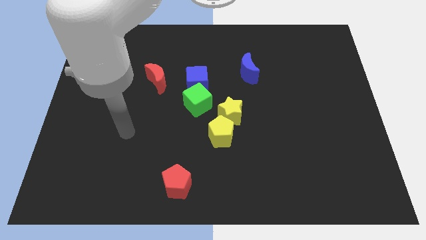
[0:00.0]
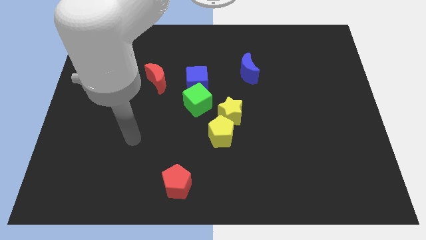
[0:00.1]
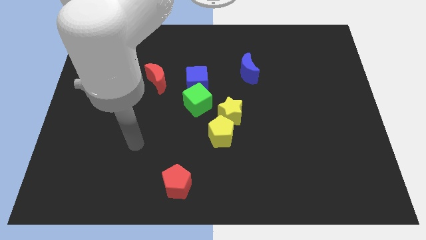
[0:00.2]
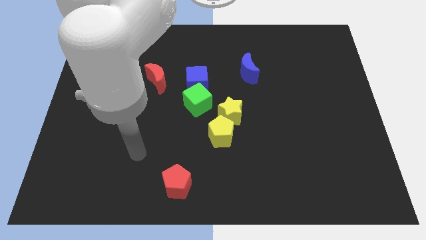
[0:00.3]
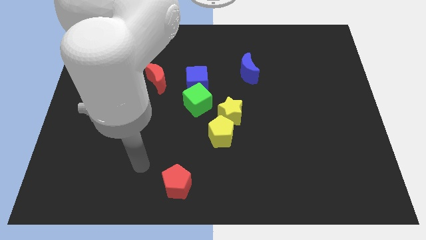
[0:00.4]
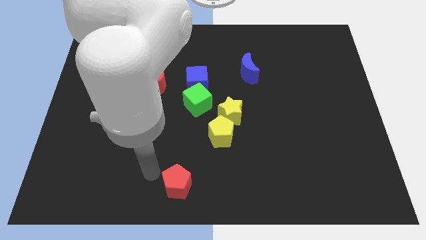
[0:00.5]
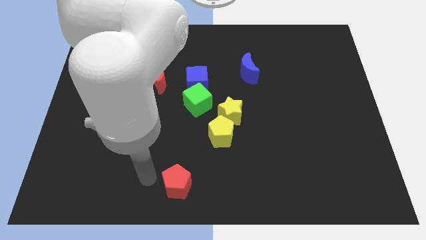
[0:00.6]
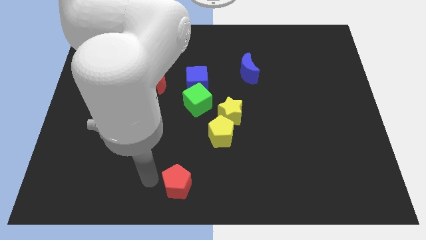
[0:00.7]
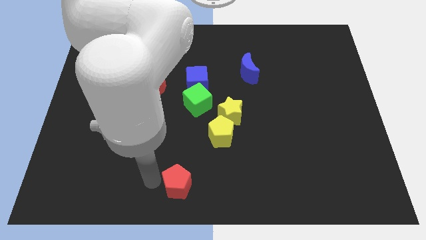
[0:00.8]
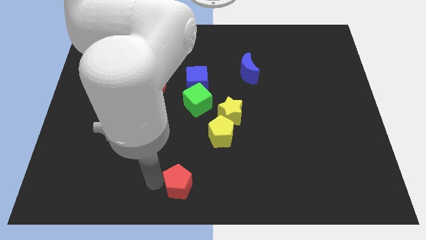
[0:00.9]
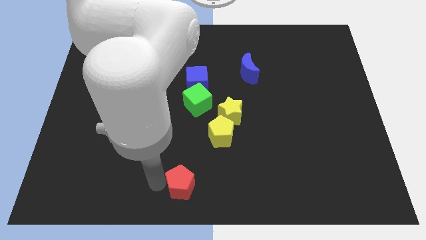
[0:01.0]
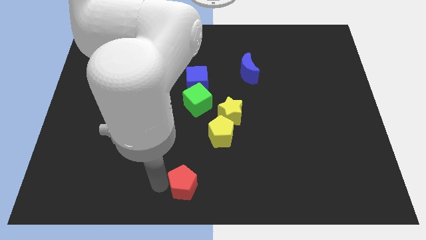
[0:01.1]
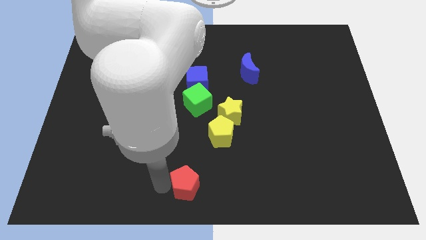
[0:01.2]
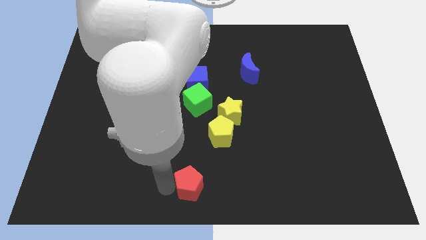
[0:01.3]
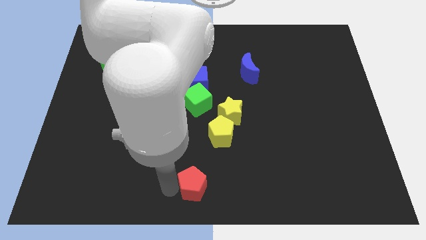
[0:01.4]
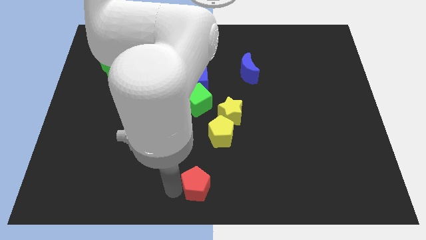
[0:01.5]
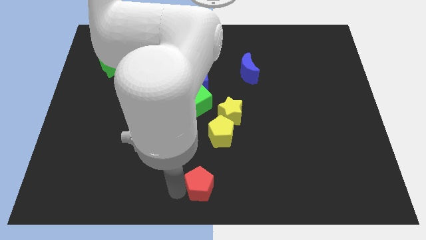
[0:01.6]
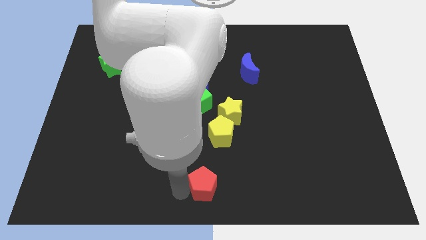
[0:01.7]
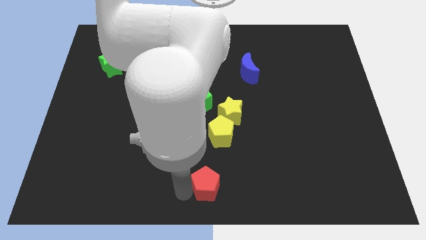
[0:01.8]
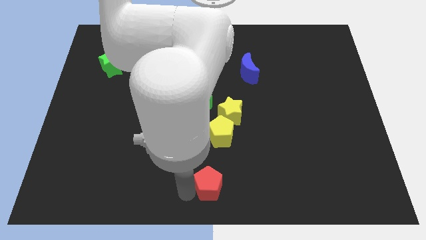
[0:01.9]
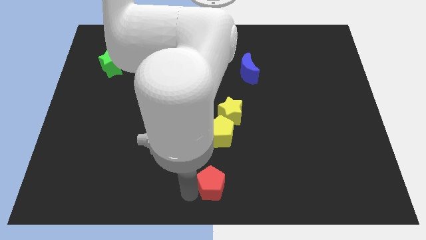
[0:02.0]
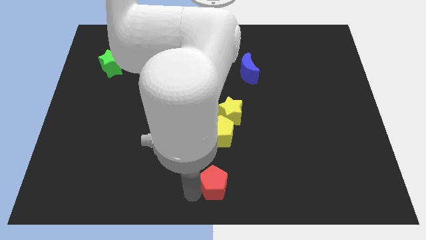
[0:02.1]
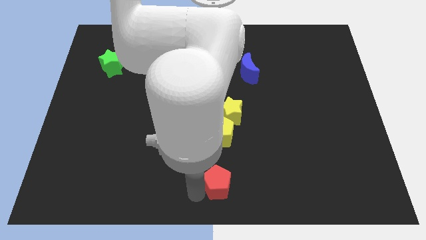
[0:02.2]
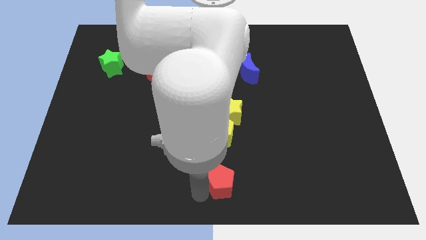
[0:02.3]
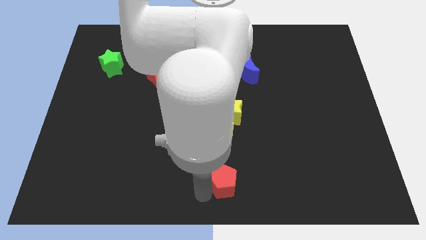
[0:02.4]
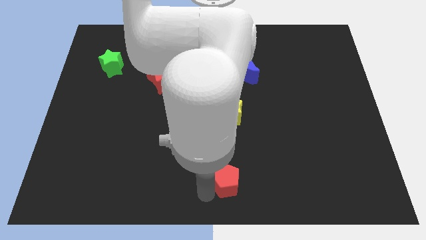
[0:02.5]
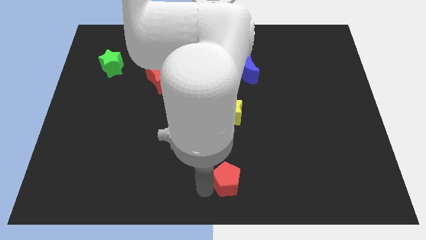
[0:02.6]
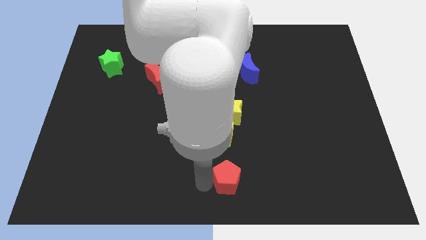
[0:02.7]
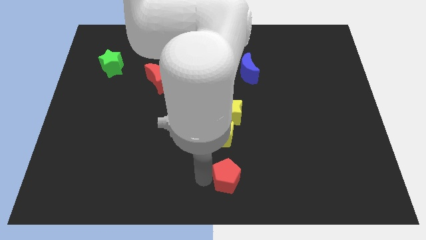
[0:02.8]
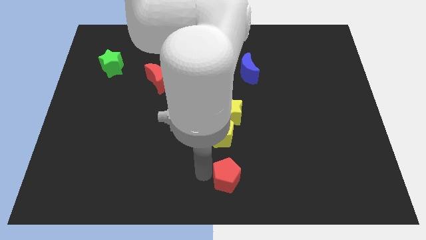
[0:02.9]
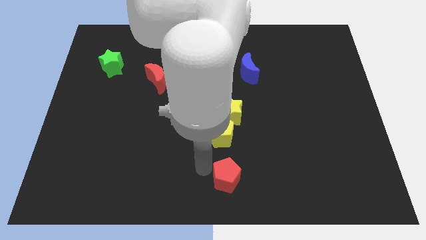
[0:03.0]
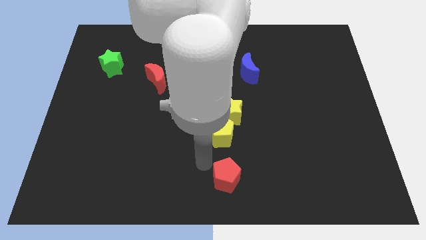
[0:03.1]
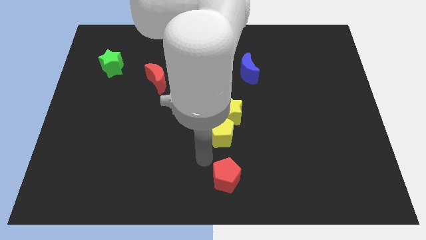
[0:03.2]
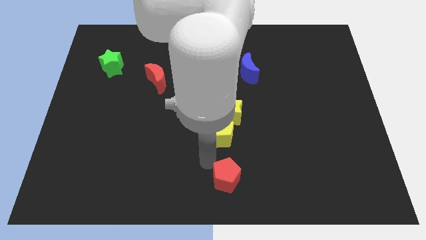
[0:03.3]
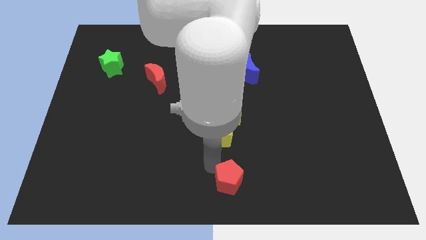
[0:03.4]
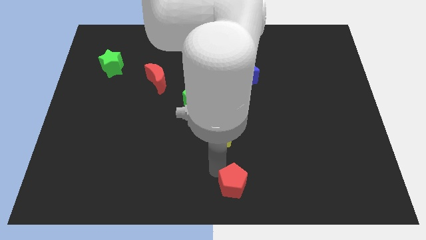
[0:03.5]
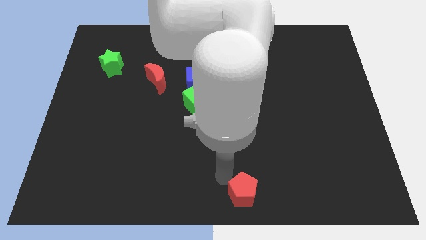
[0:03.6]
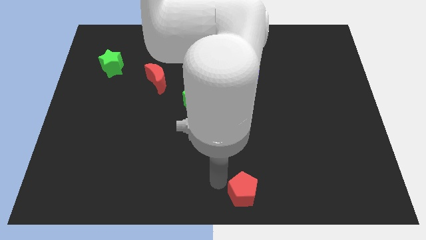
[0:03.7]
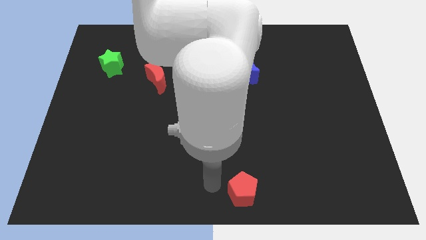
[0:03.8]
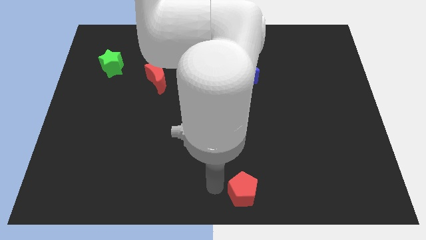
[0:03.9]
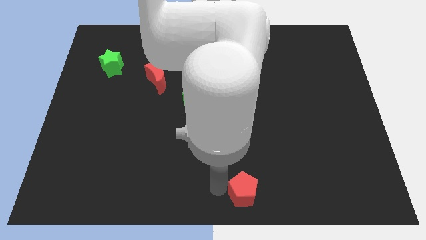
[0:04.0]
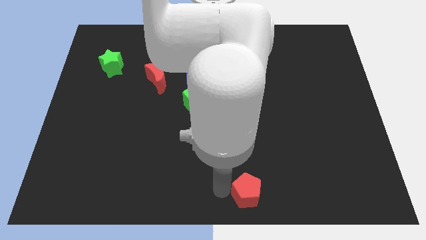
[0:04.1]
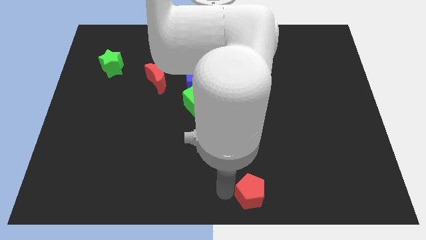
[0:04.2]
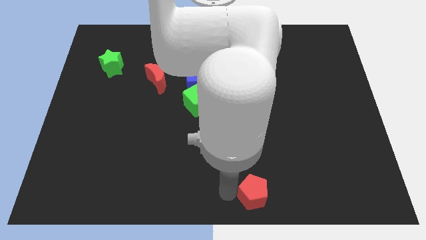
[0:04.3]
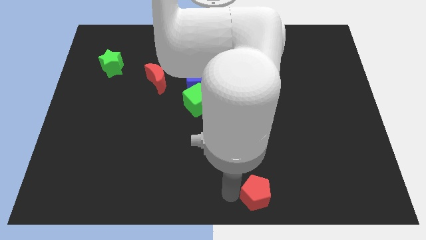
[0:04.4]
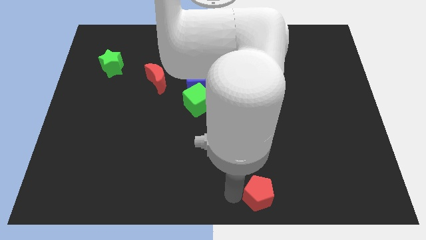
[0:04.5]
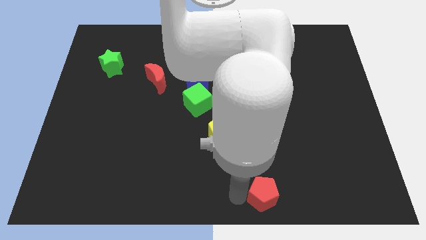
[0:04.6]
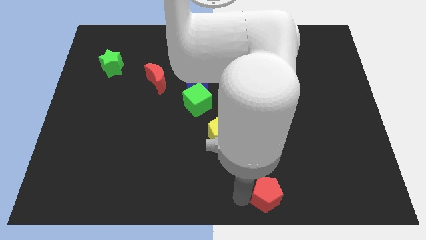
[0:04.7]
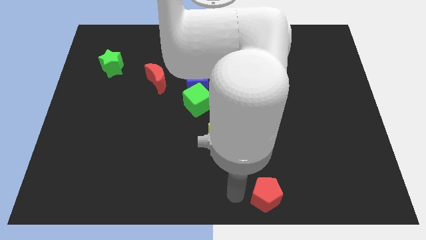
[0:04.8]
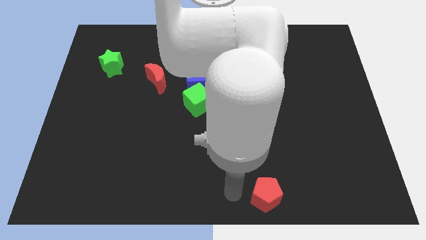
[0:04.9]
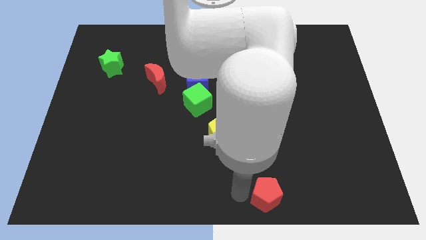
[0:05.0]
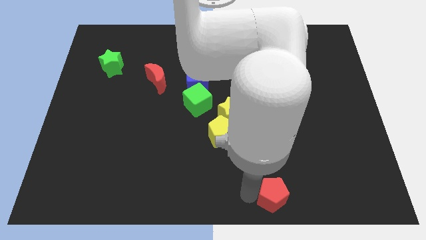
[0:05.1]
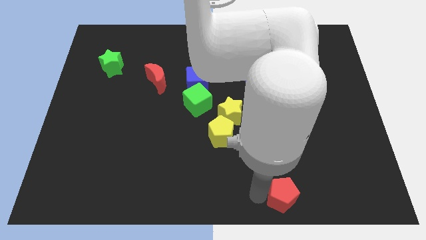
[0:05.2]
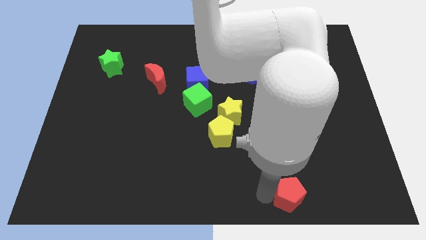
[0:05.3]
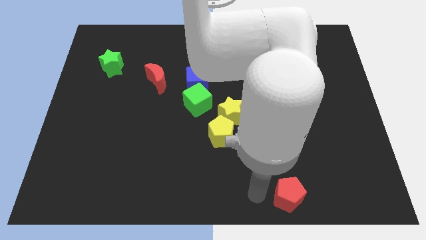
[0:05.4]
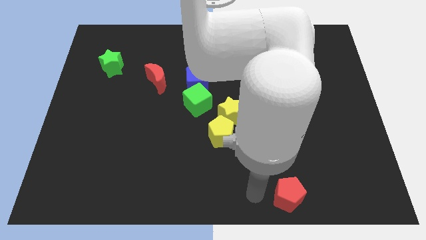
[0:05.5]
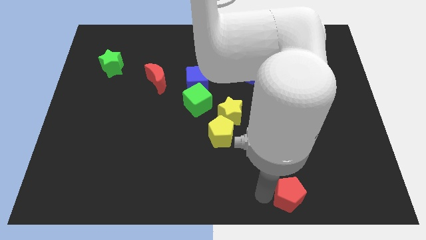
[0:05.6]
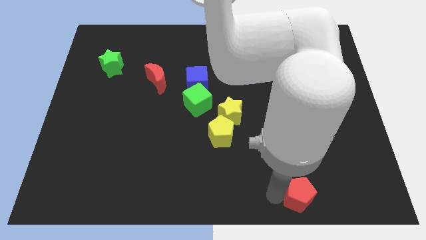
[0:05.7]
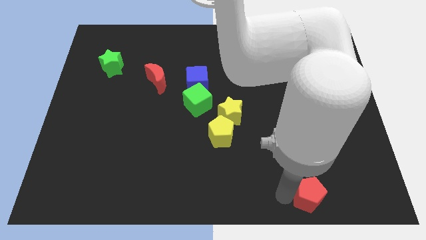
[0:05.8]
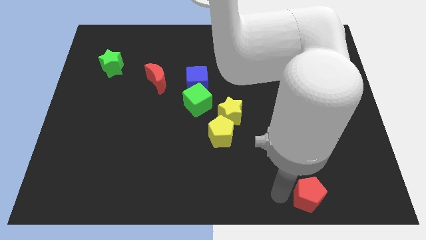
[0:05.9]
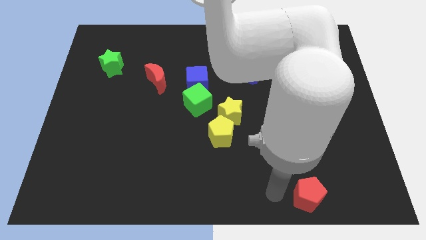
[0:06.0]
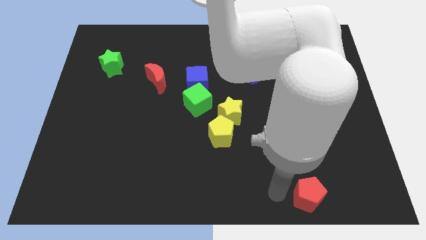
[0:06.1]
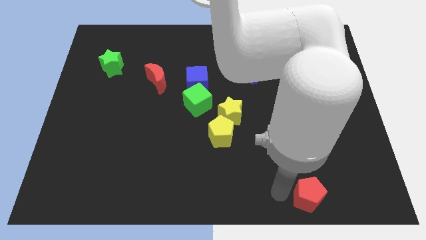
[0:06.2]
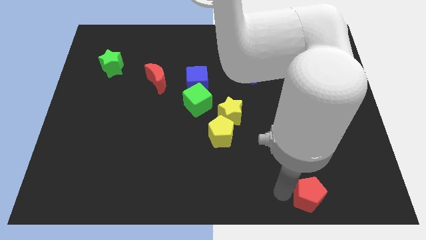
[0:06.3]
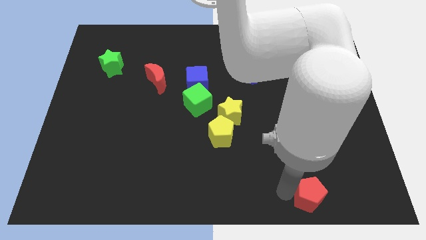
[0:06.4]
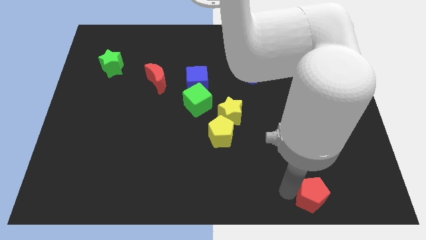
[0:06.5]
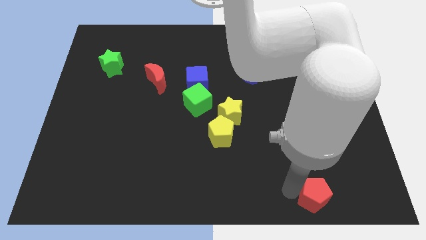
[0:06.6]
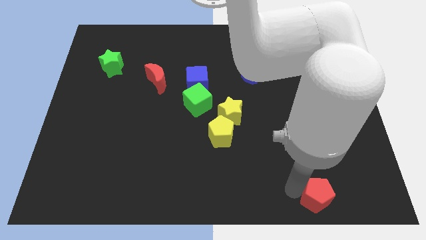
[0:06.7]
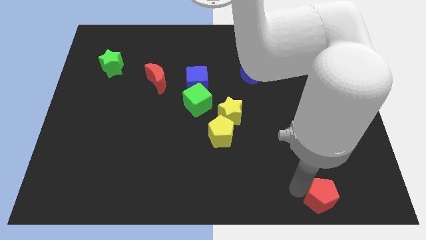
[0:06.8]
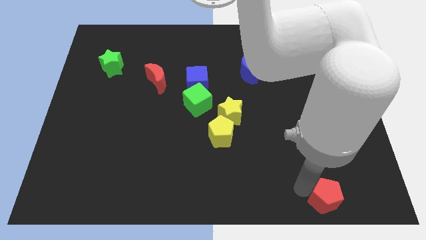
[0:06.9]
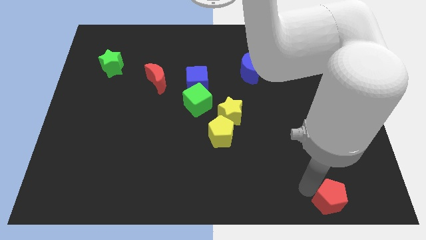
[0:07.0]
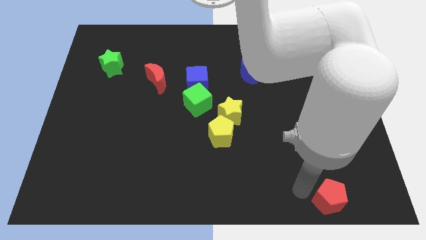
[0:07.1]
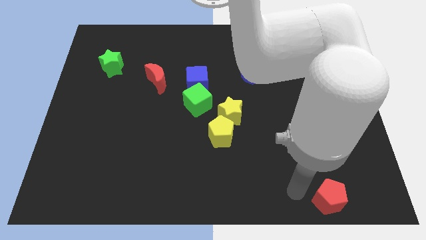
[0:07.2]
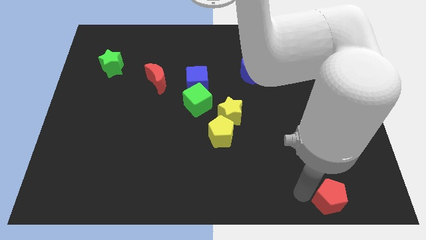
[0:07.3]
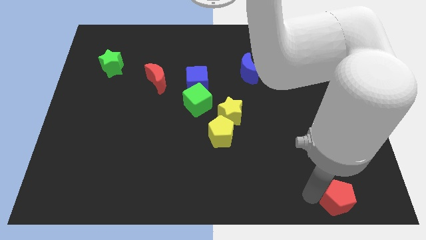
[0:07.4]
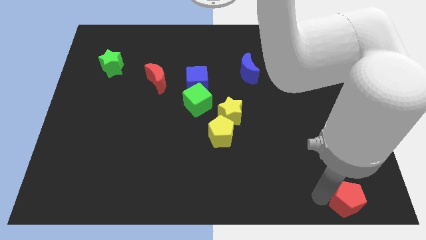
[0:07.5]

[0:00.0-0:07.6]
move the red pentagon to the lower right corner
